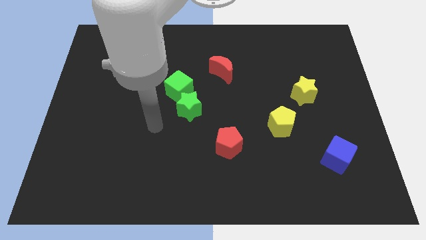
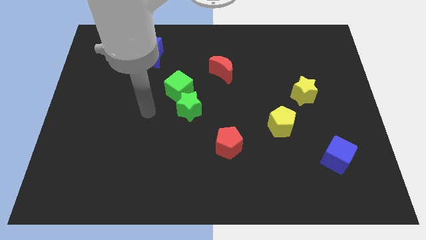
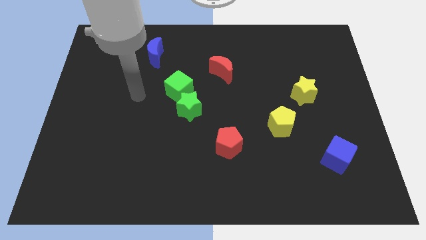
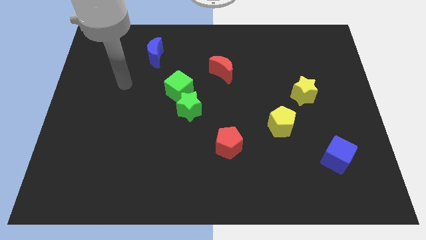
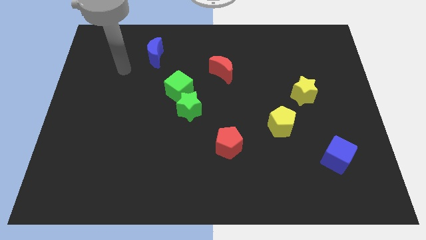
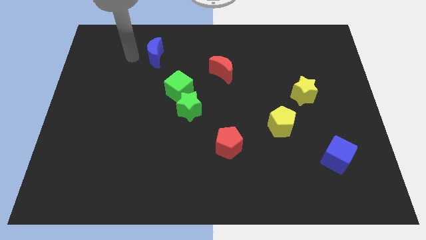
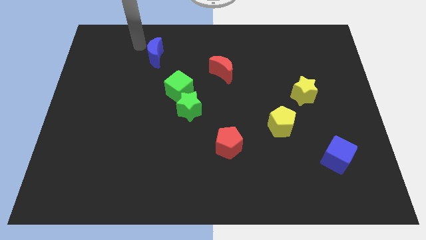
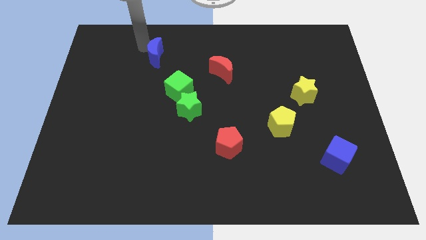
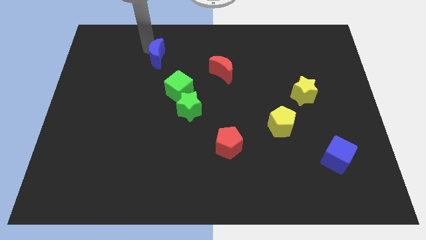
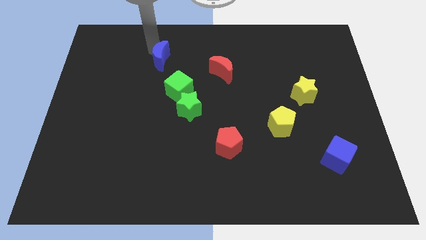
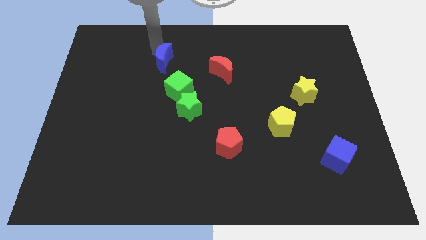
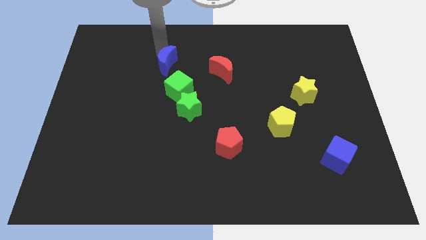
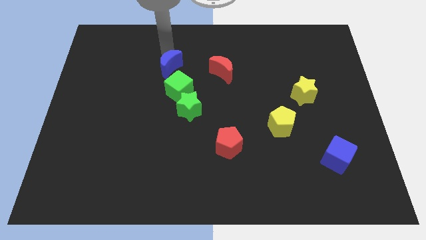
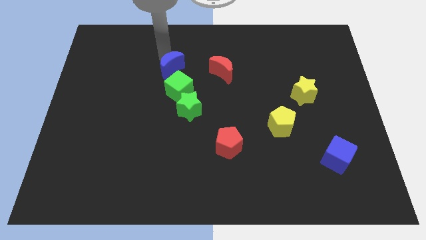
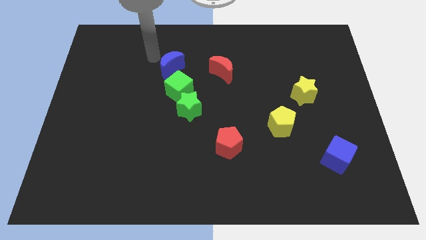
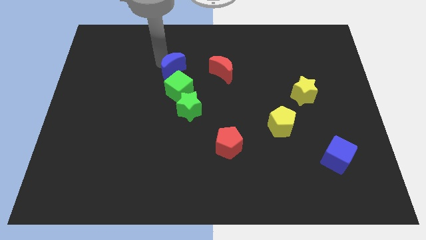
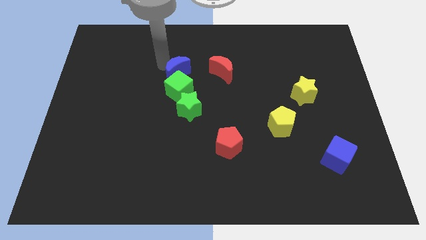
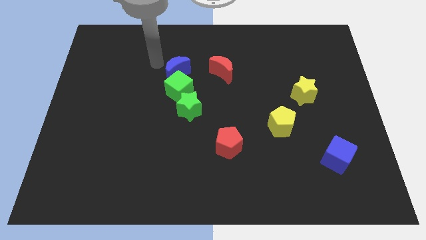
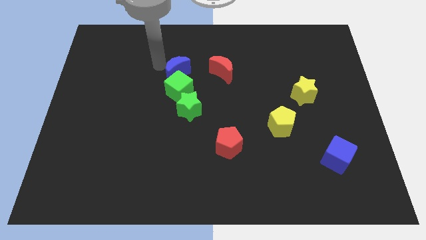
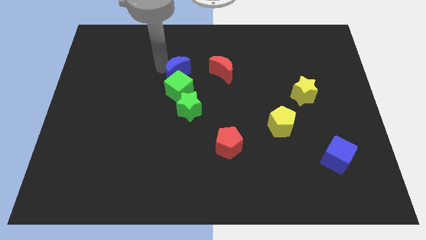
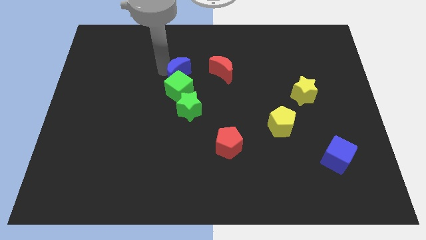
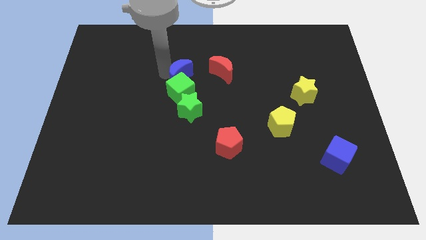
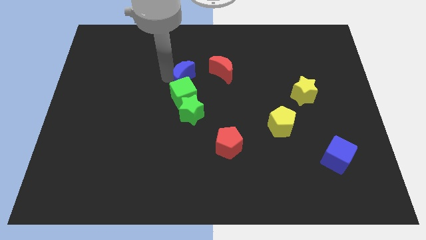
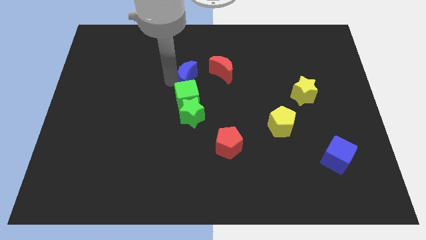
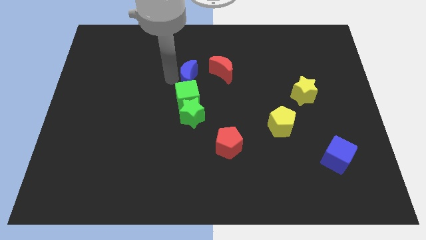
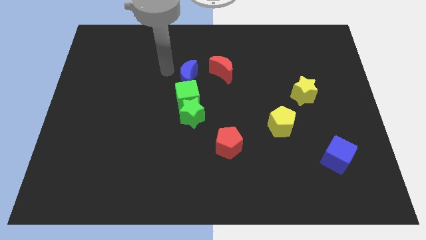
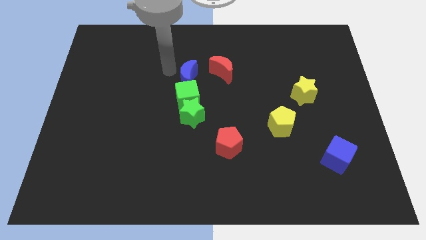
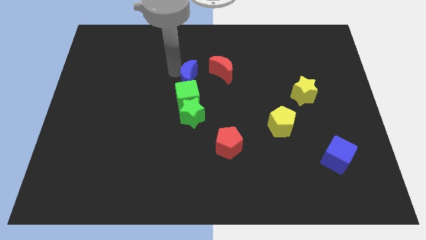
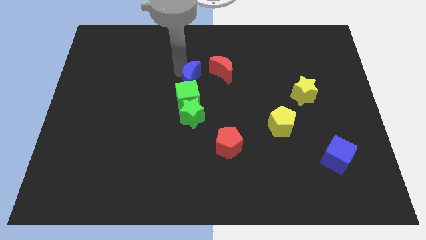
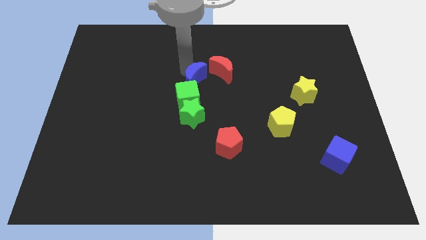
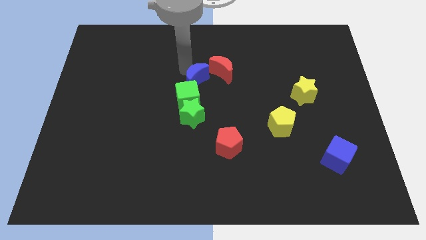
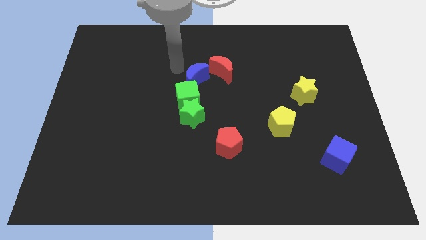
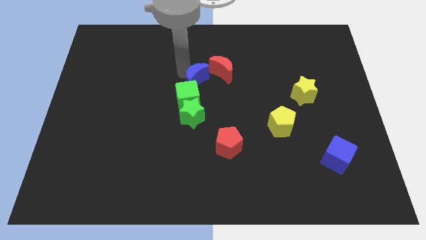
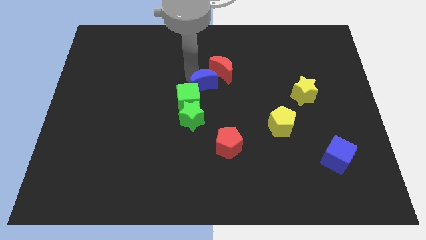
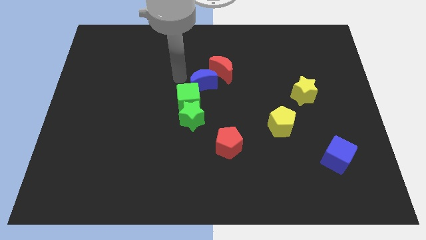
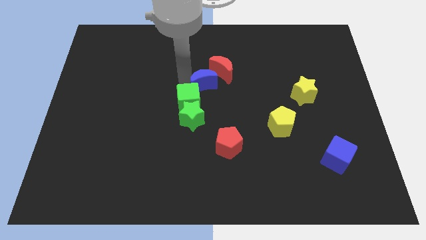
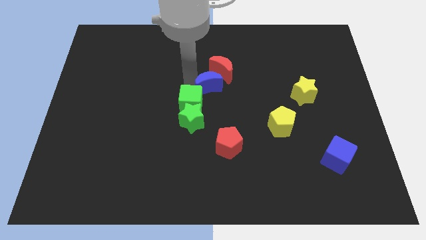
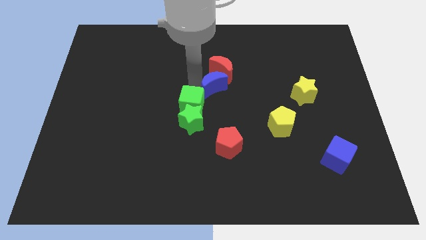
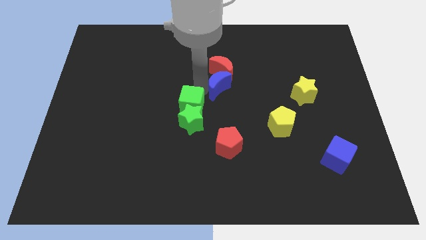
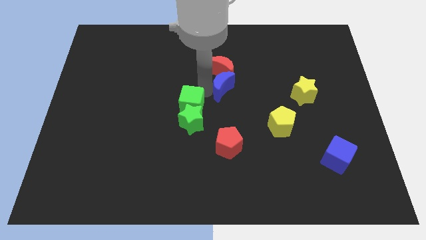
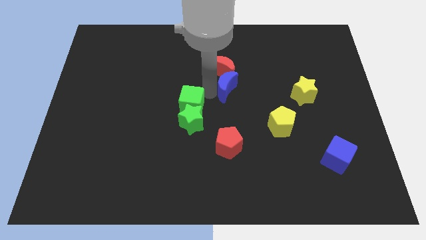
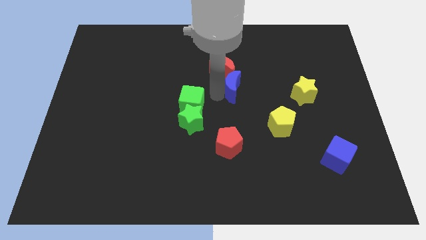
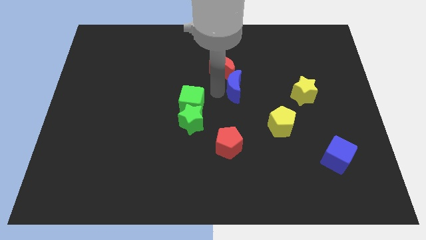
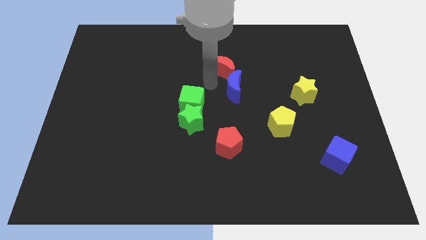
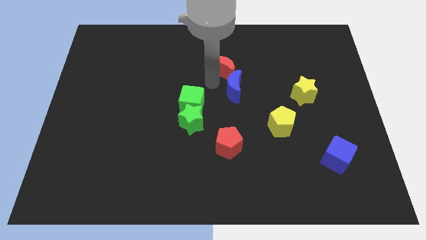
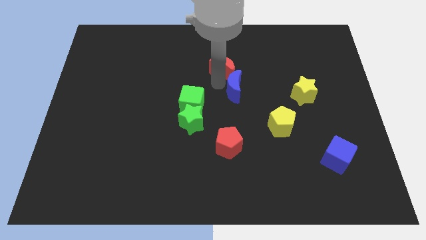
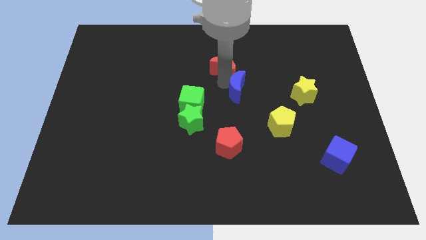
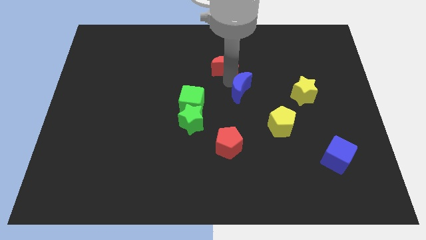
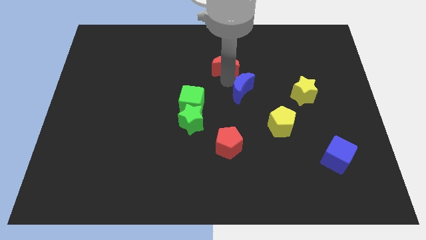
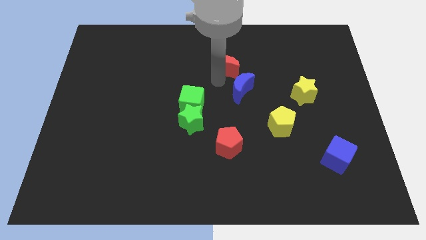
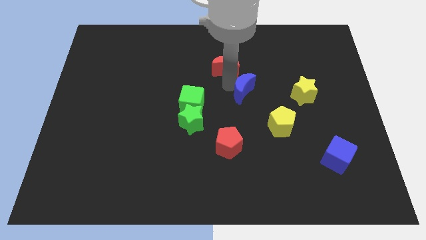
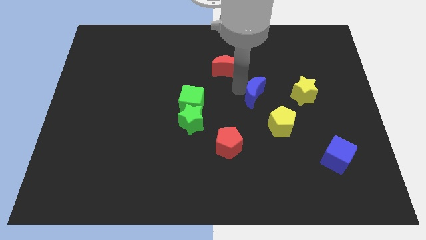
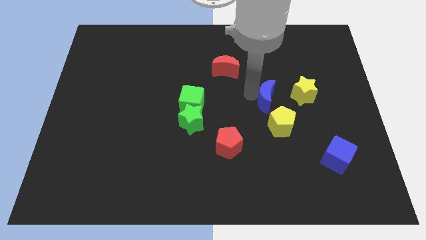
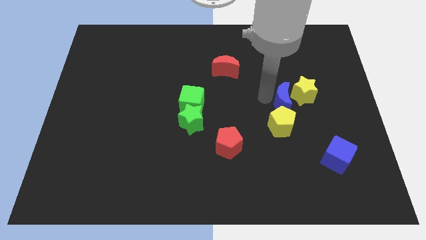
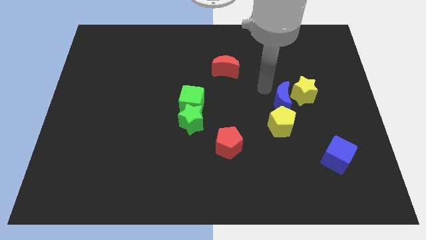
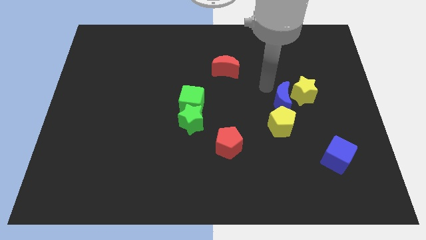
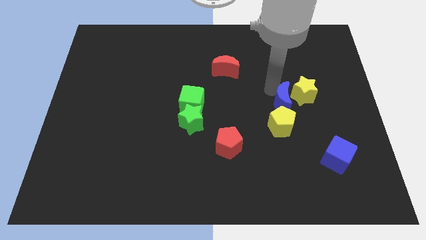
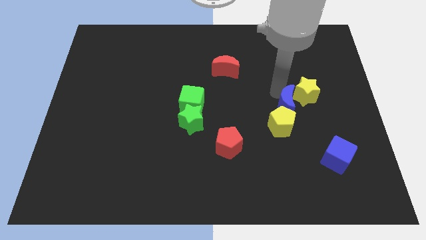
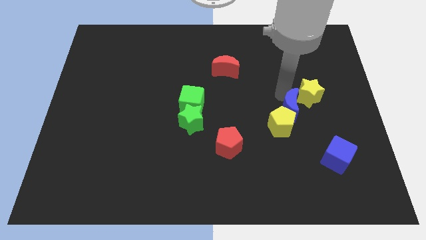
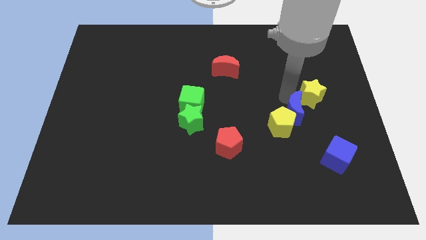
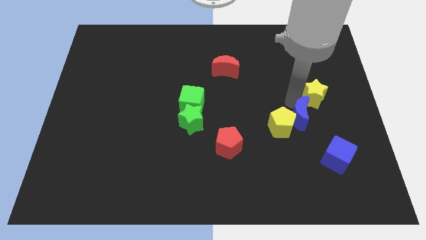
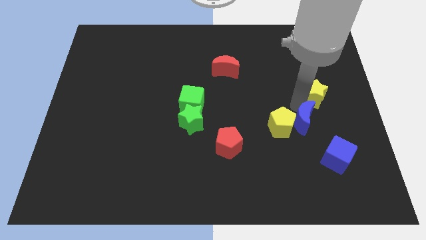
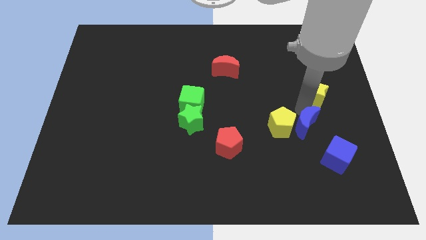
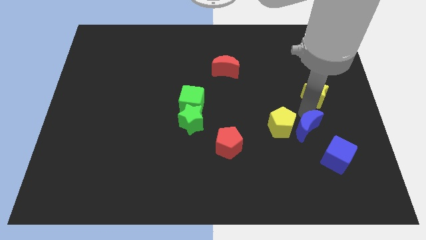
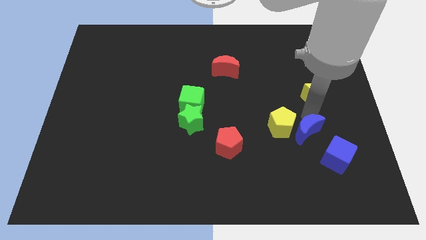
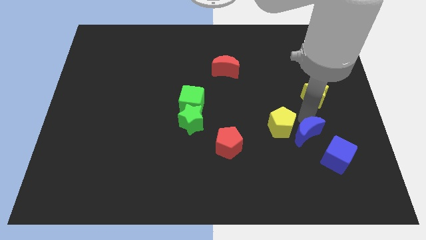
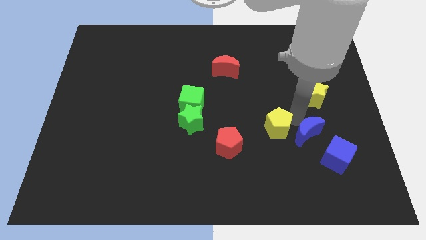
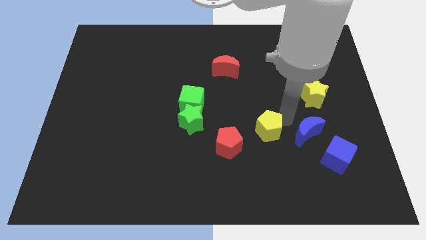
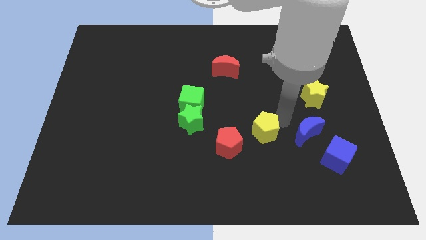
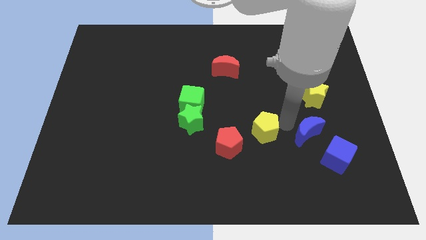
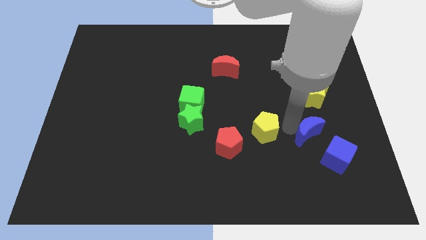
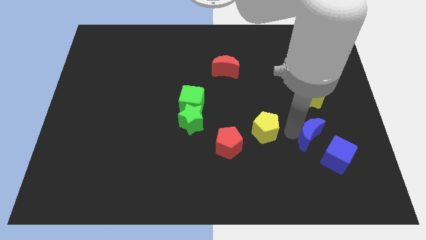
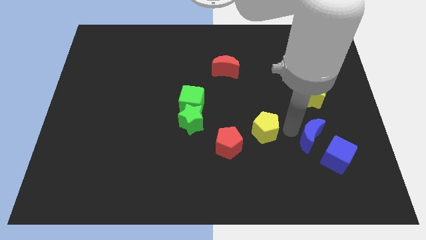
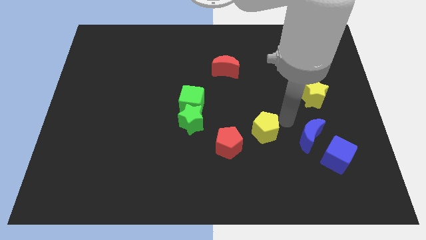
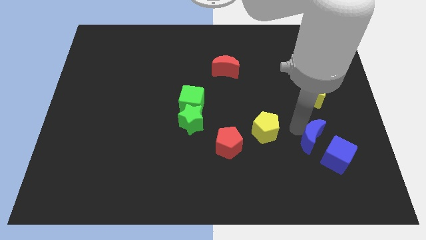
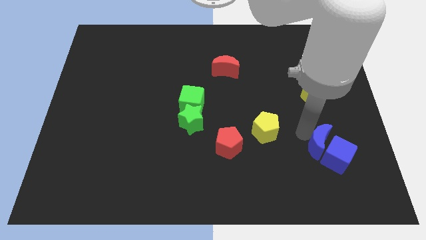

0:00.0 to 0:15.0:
put the blue moon next to the blue cube
